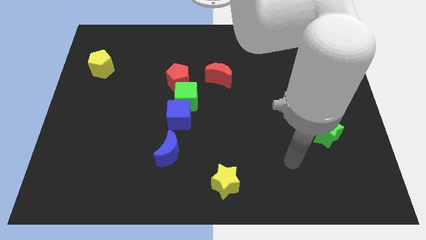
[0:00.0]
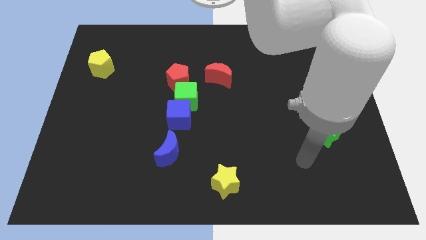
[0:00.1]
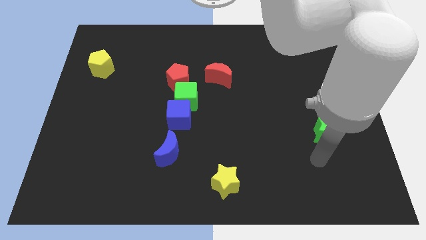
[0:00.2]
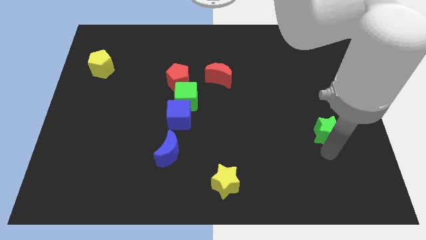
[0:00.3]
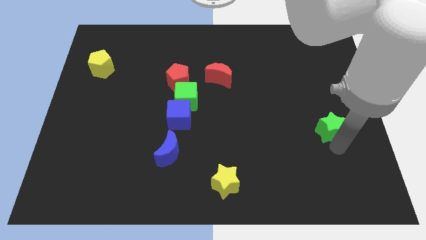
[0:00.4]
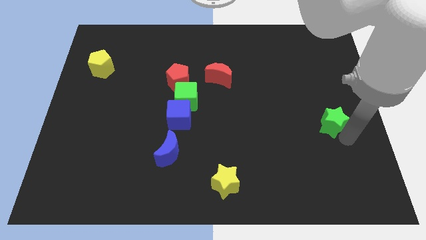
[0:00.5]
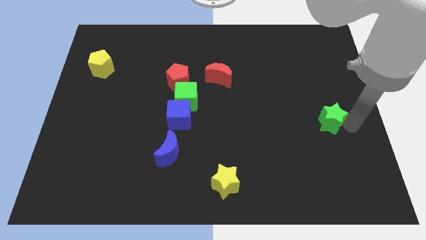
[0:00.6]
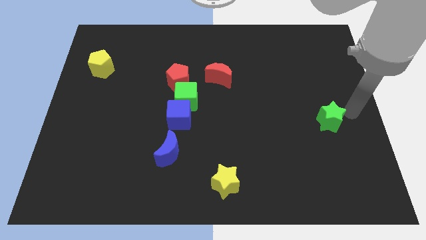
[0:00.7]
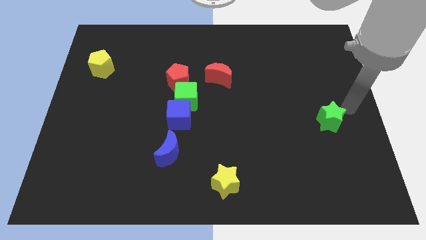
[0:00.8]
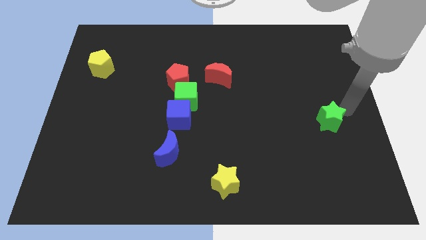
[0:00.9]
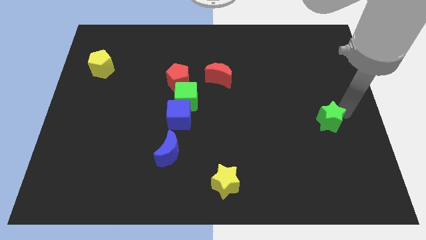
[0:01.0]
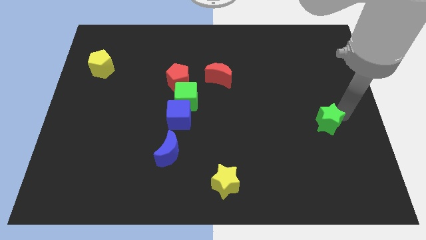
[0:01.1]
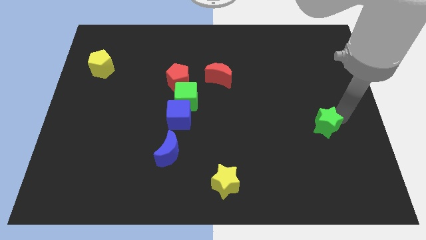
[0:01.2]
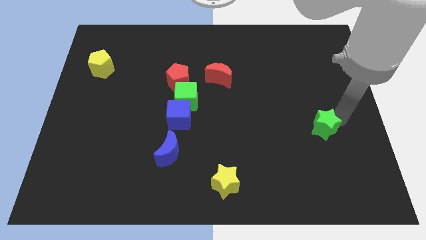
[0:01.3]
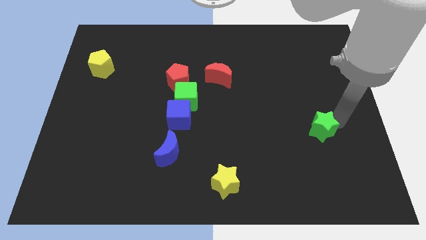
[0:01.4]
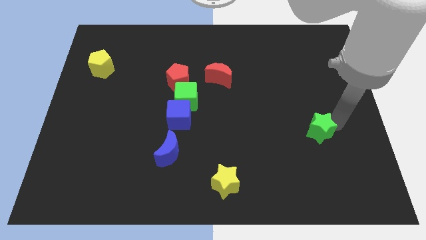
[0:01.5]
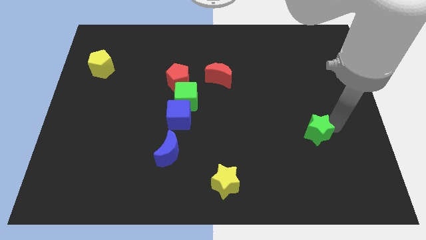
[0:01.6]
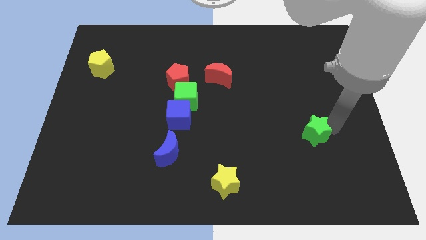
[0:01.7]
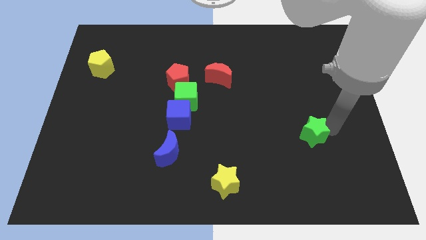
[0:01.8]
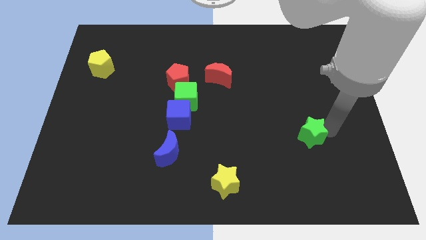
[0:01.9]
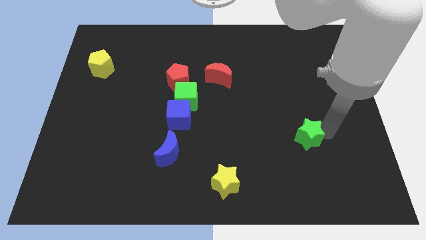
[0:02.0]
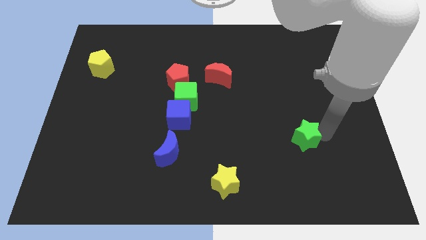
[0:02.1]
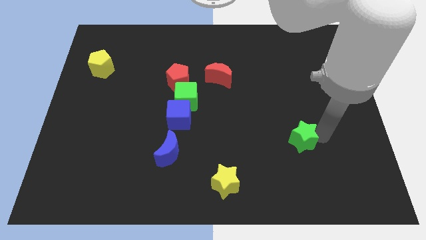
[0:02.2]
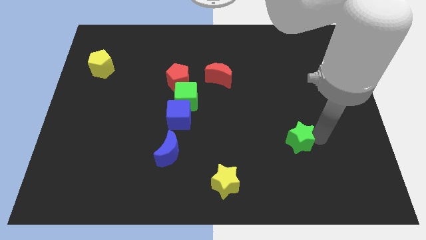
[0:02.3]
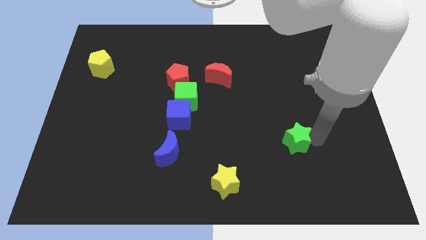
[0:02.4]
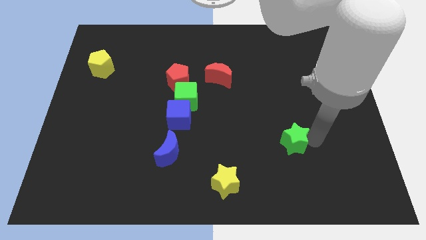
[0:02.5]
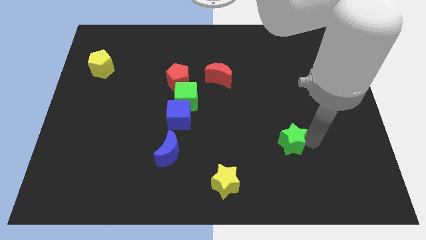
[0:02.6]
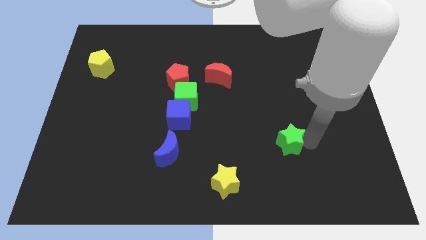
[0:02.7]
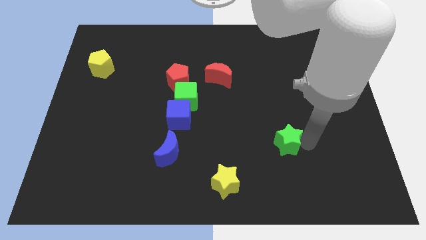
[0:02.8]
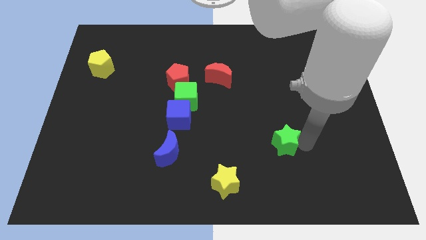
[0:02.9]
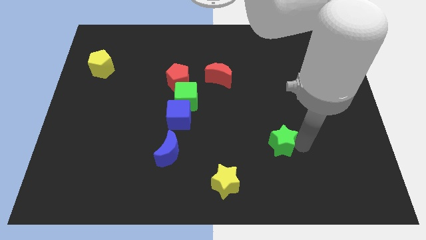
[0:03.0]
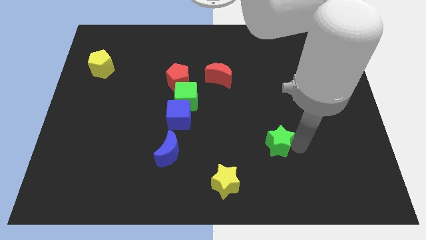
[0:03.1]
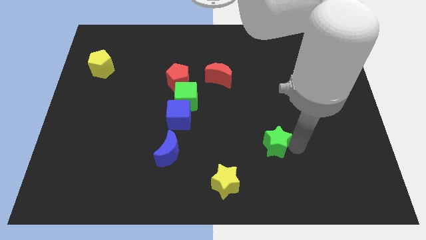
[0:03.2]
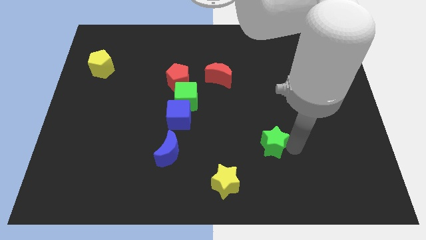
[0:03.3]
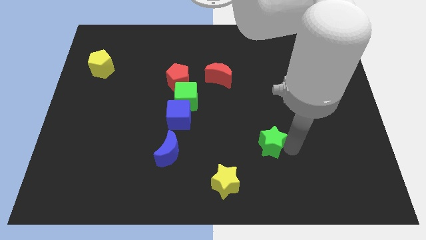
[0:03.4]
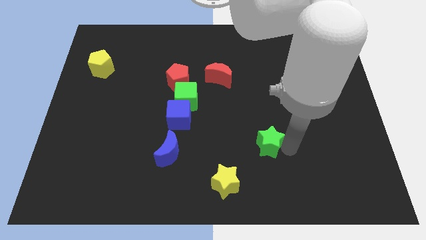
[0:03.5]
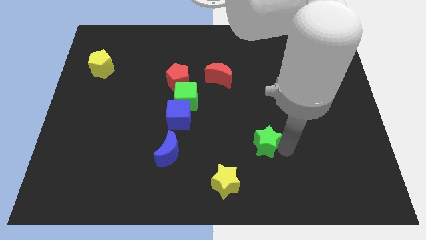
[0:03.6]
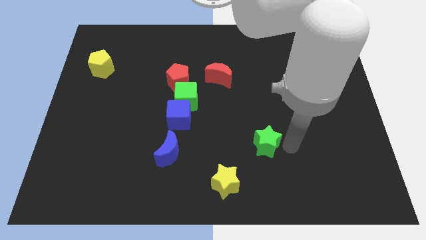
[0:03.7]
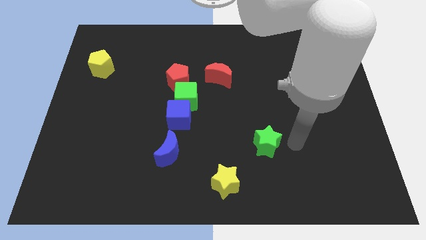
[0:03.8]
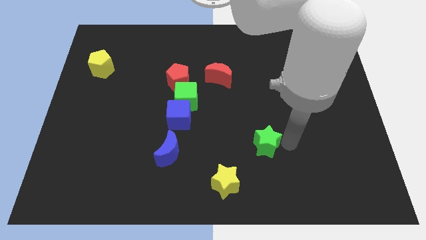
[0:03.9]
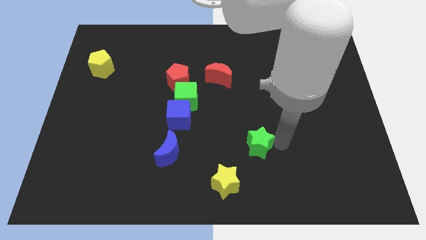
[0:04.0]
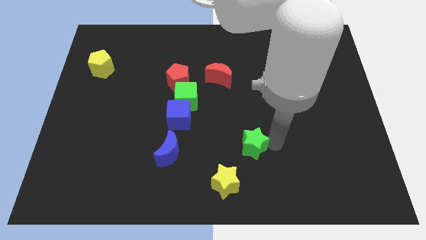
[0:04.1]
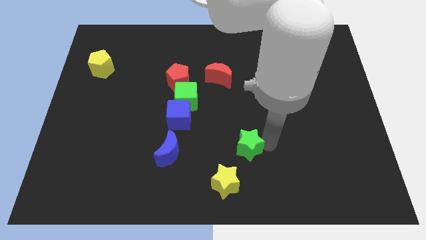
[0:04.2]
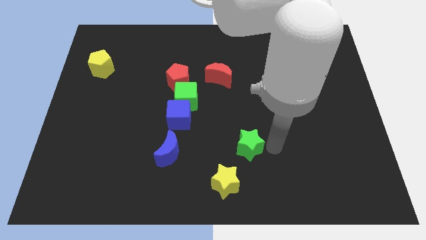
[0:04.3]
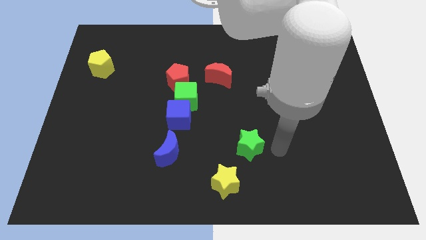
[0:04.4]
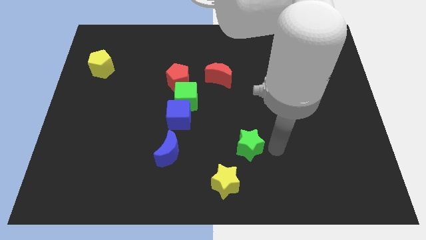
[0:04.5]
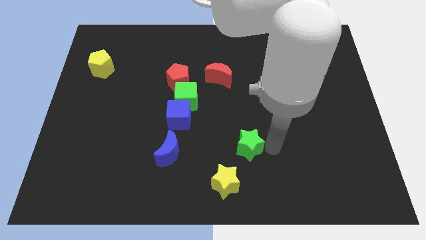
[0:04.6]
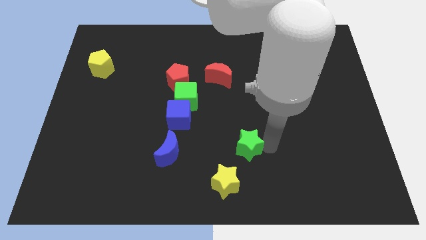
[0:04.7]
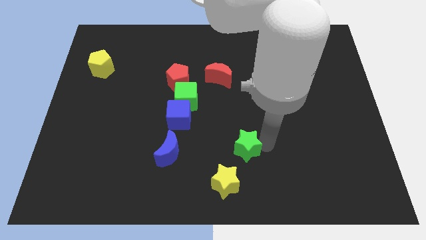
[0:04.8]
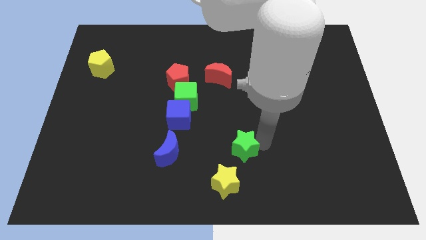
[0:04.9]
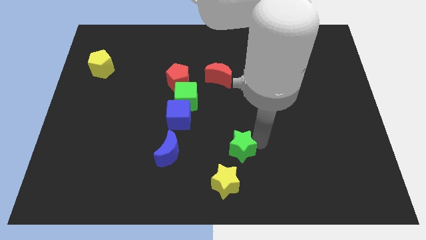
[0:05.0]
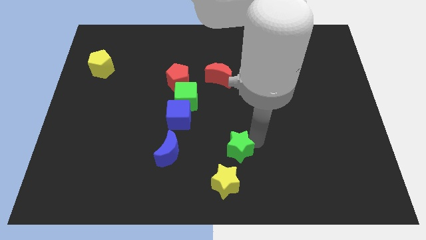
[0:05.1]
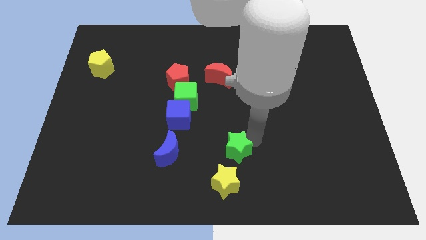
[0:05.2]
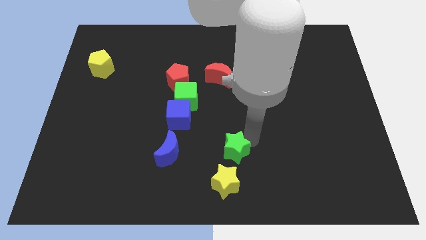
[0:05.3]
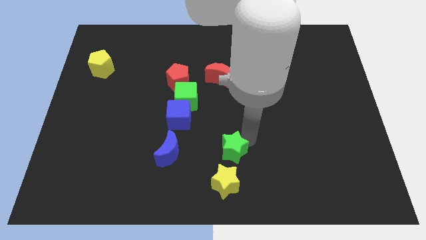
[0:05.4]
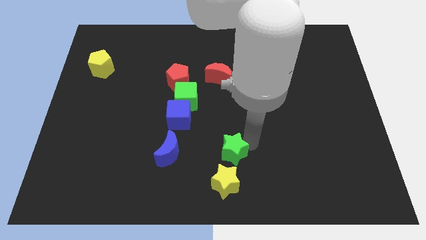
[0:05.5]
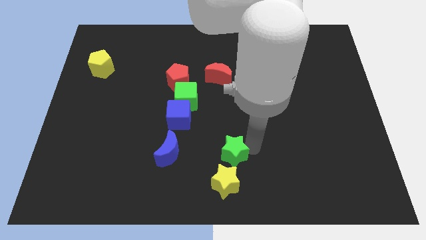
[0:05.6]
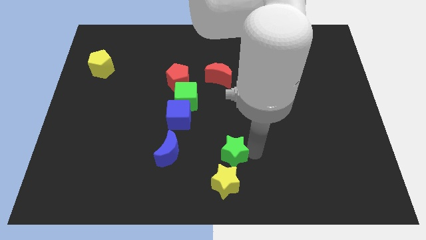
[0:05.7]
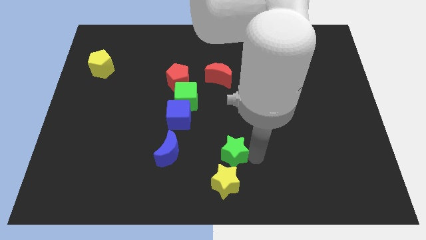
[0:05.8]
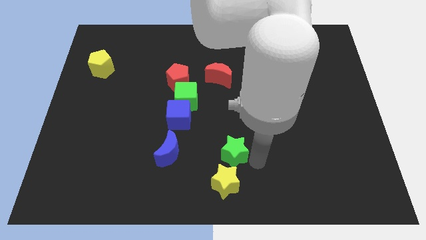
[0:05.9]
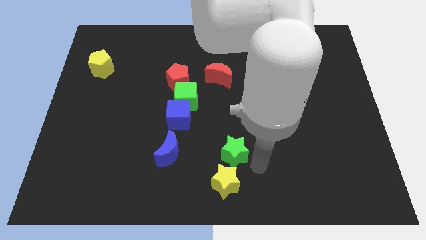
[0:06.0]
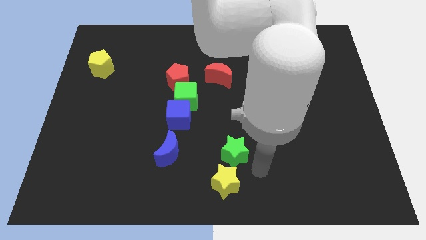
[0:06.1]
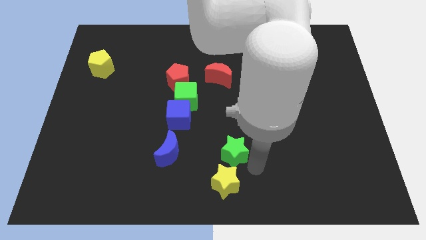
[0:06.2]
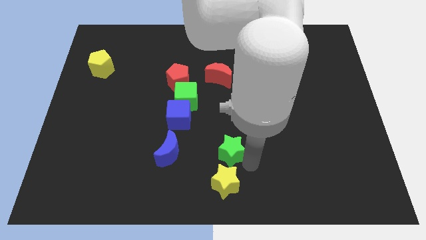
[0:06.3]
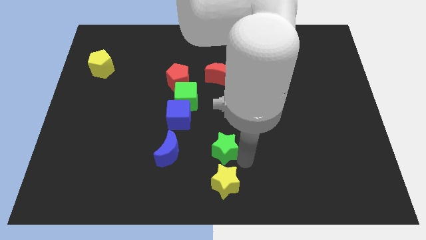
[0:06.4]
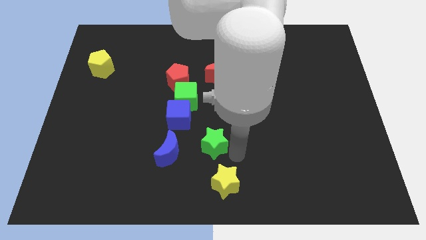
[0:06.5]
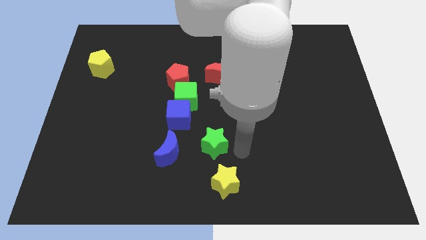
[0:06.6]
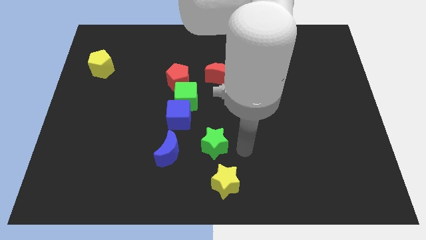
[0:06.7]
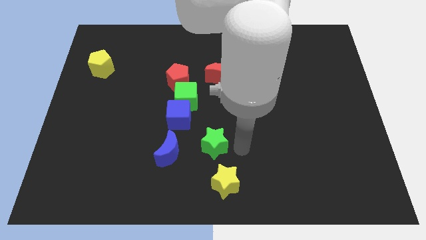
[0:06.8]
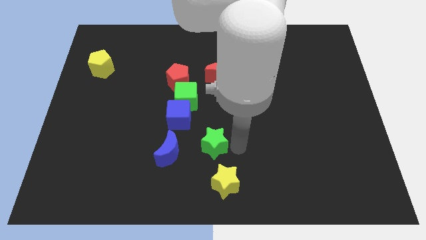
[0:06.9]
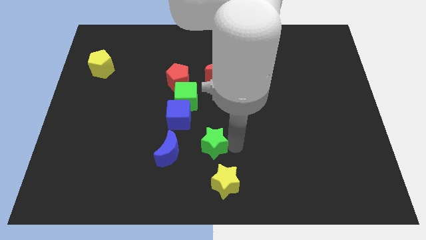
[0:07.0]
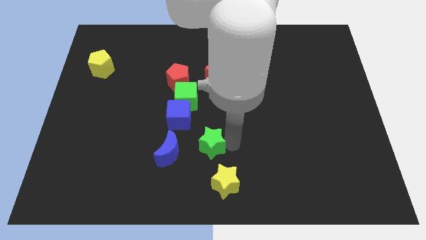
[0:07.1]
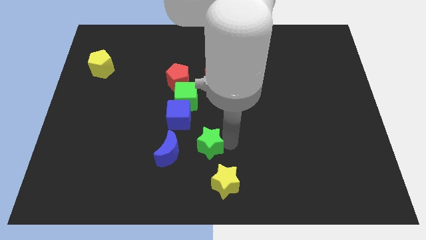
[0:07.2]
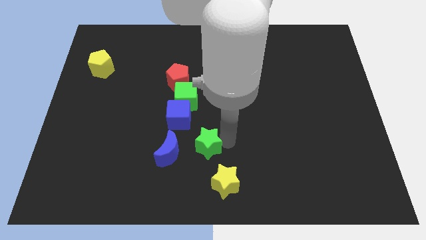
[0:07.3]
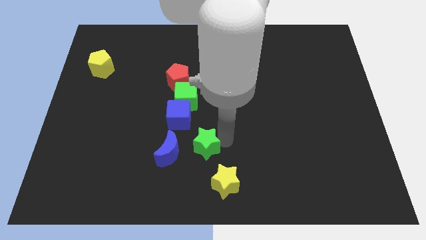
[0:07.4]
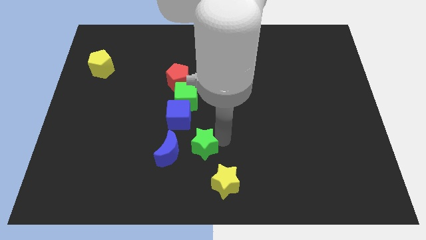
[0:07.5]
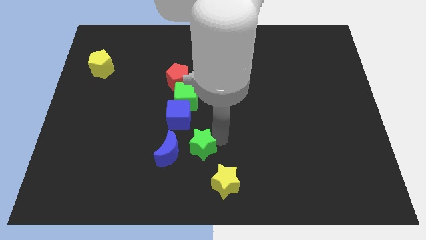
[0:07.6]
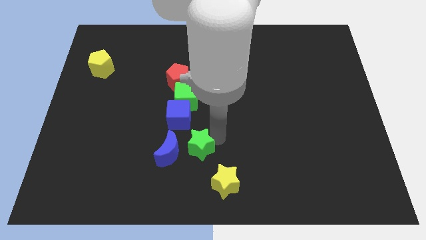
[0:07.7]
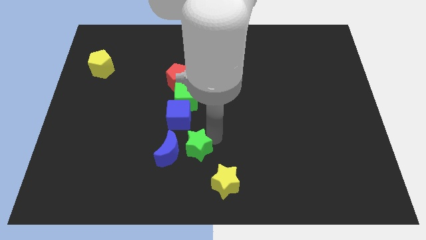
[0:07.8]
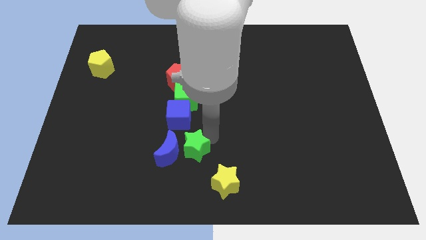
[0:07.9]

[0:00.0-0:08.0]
slide the green star next to the blue moon
